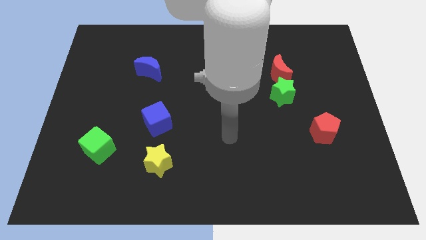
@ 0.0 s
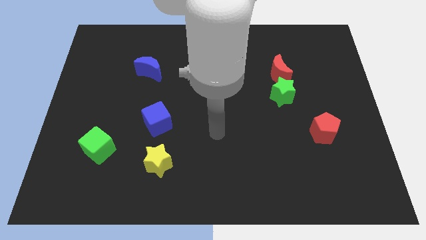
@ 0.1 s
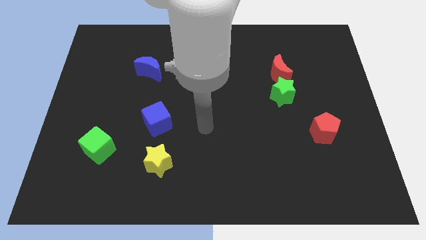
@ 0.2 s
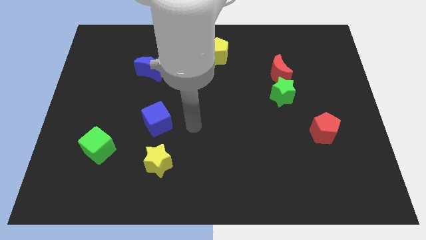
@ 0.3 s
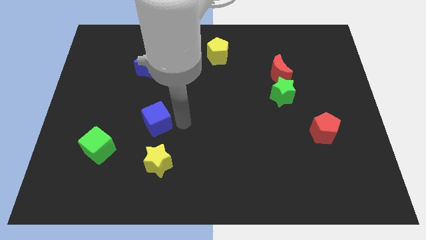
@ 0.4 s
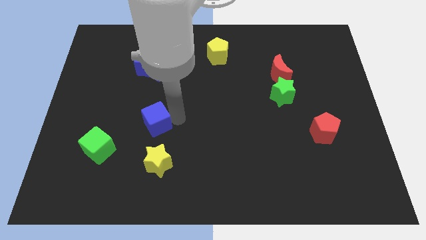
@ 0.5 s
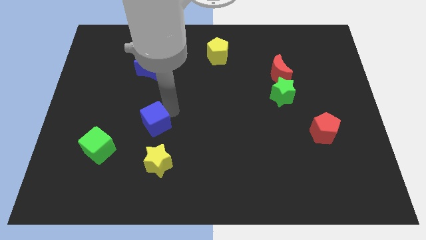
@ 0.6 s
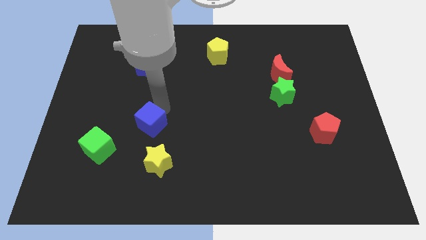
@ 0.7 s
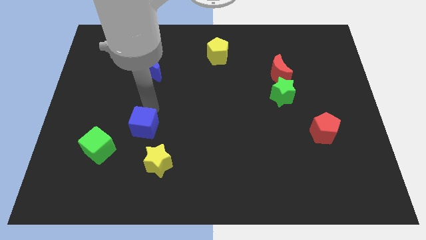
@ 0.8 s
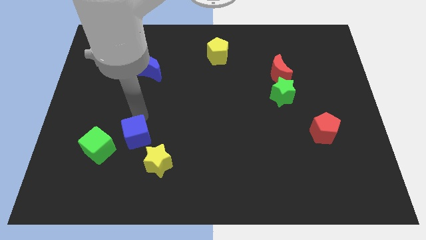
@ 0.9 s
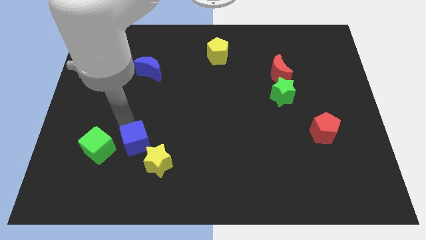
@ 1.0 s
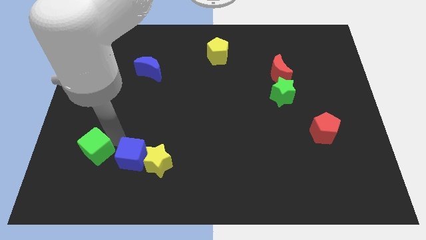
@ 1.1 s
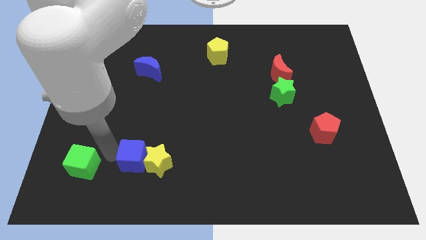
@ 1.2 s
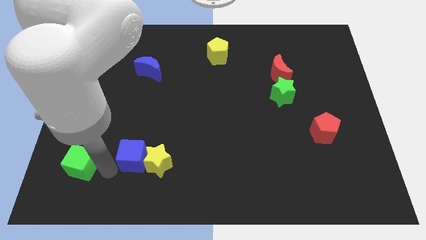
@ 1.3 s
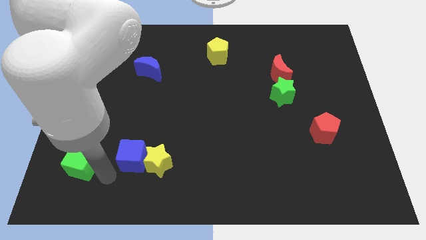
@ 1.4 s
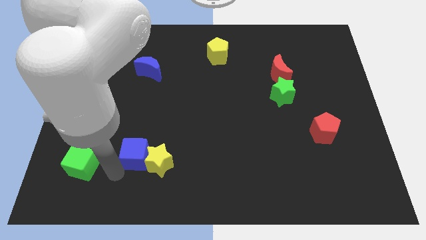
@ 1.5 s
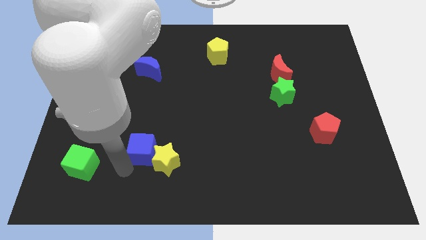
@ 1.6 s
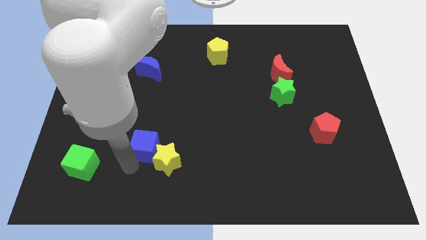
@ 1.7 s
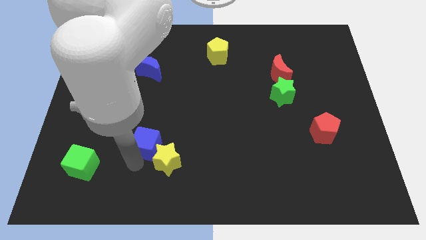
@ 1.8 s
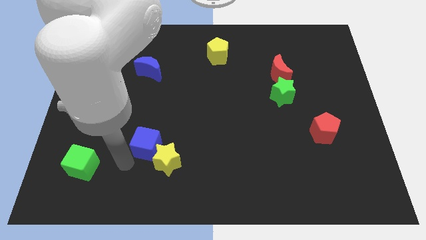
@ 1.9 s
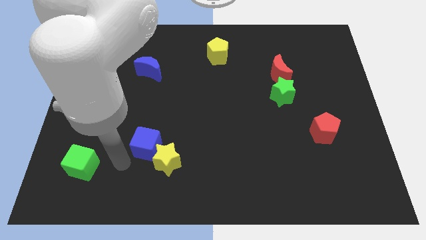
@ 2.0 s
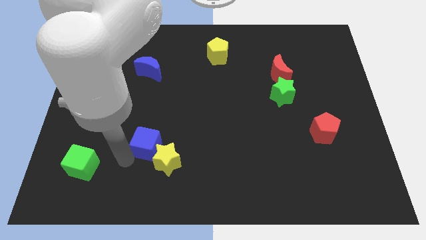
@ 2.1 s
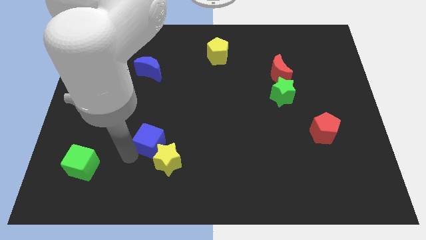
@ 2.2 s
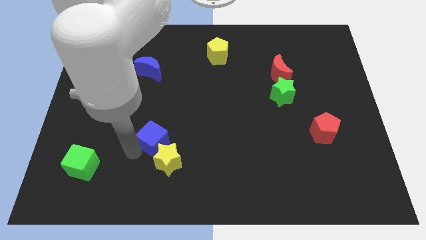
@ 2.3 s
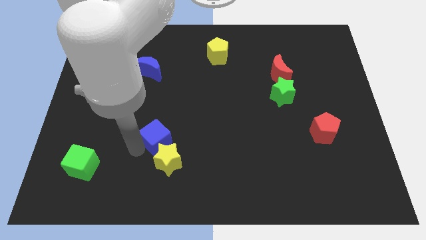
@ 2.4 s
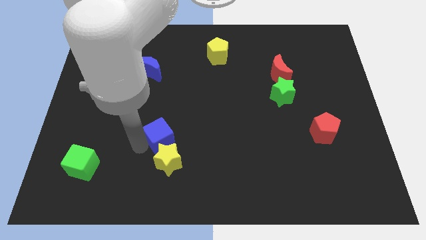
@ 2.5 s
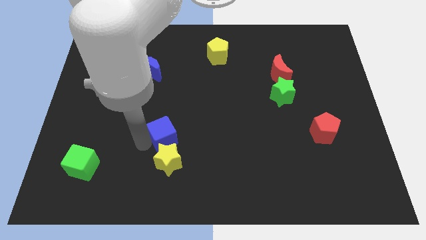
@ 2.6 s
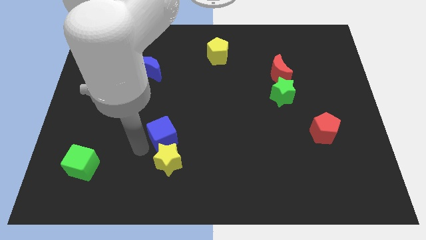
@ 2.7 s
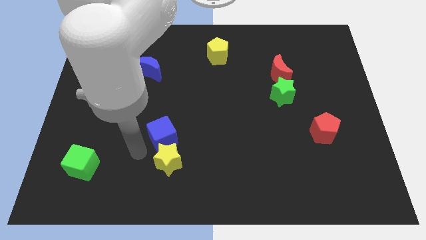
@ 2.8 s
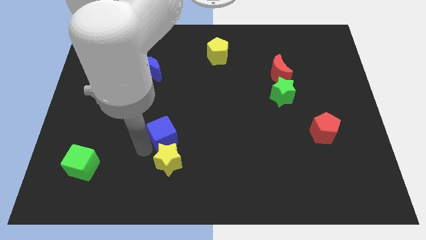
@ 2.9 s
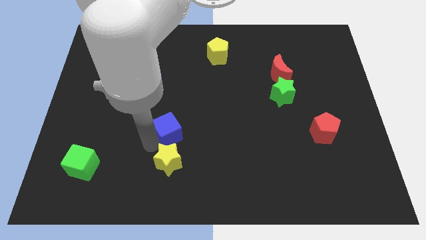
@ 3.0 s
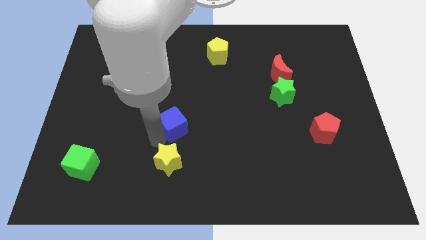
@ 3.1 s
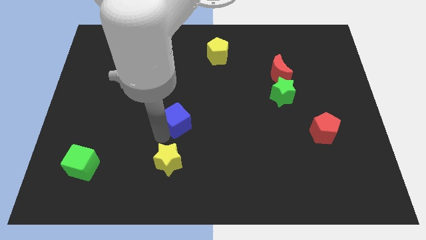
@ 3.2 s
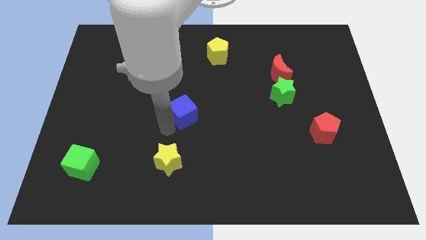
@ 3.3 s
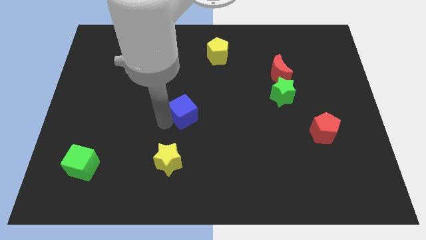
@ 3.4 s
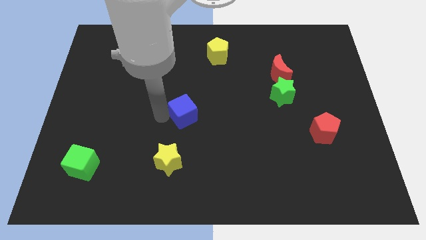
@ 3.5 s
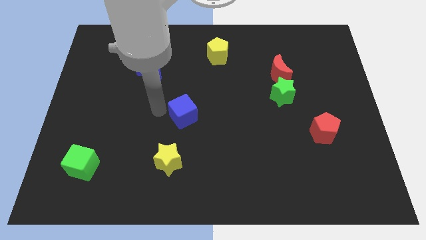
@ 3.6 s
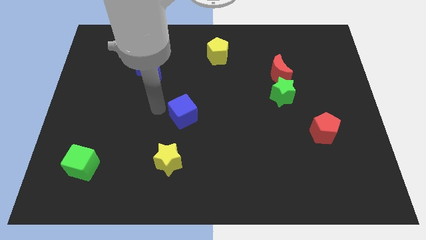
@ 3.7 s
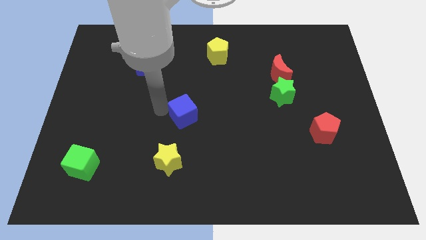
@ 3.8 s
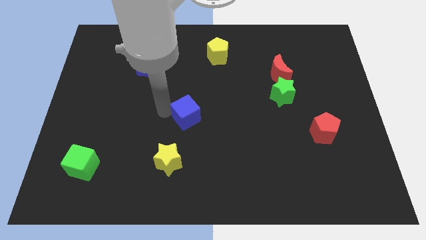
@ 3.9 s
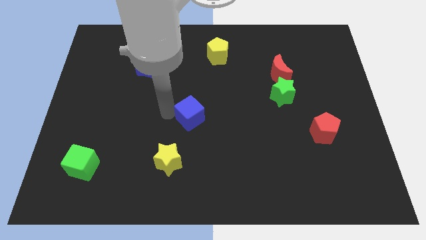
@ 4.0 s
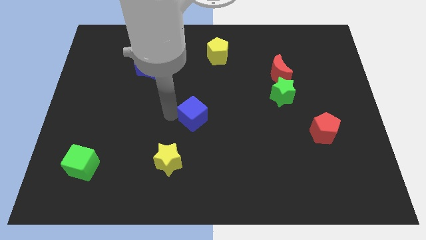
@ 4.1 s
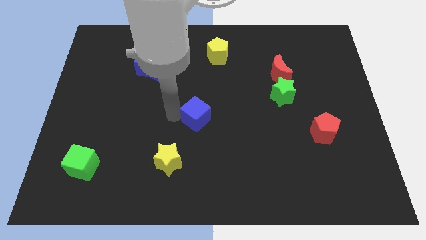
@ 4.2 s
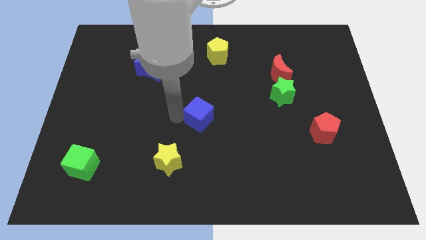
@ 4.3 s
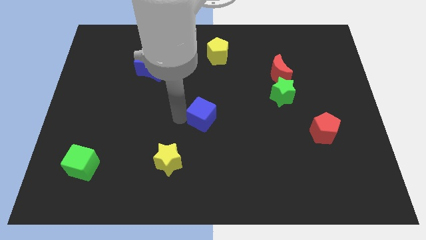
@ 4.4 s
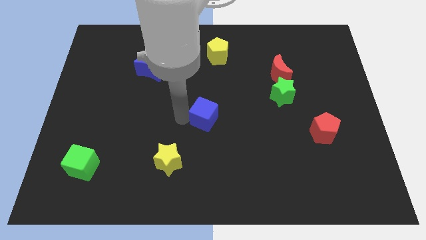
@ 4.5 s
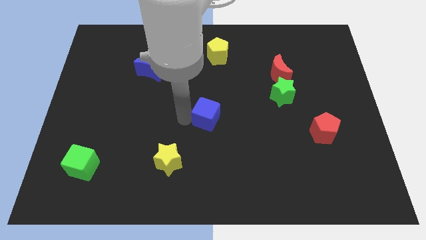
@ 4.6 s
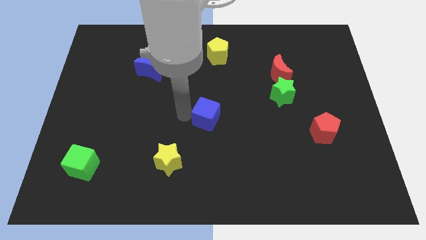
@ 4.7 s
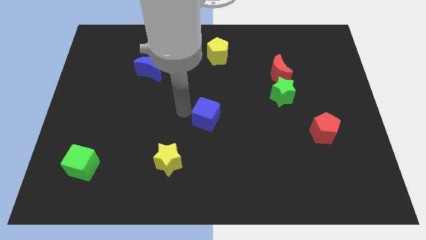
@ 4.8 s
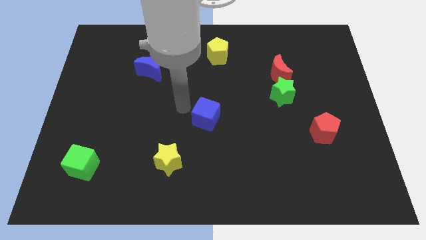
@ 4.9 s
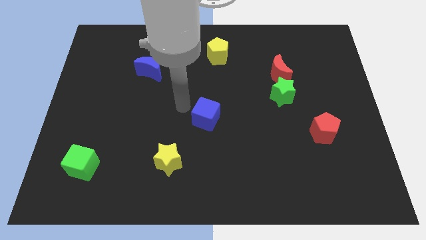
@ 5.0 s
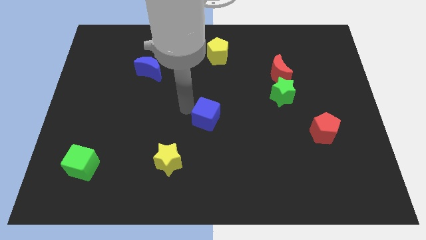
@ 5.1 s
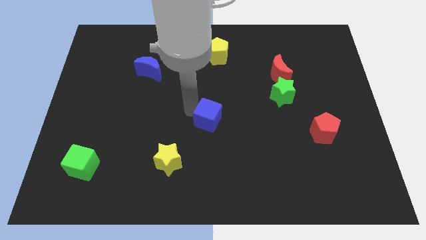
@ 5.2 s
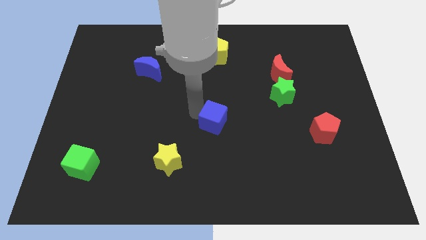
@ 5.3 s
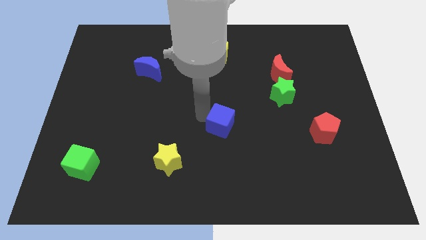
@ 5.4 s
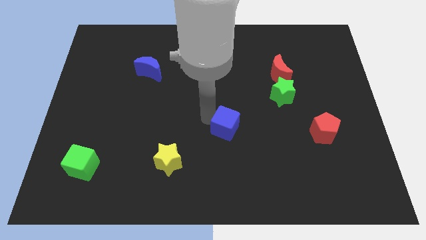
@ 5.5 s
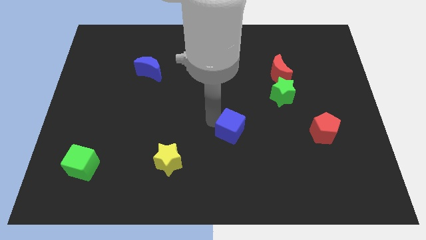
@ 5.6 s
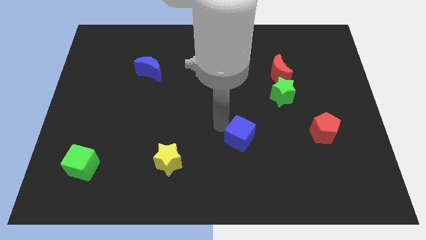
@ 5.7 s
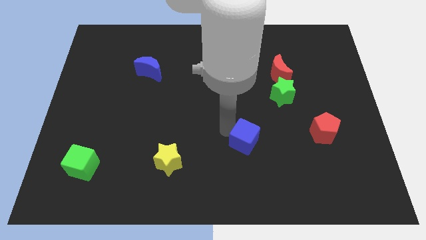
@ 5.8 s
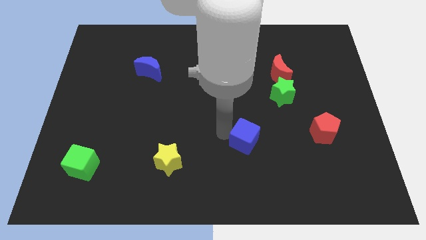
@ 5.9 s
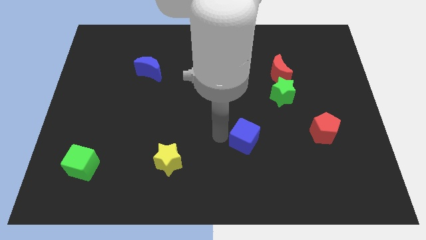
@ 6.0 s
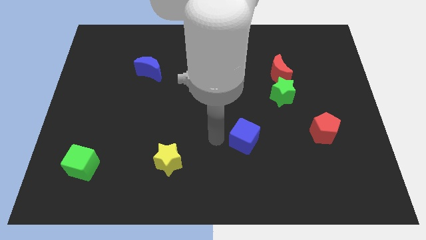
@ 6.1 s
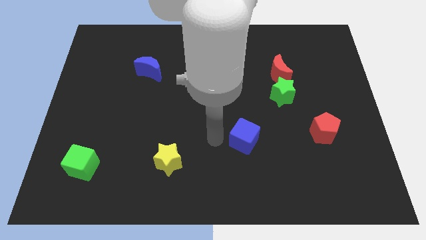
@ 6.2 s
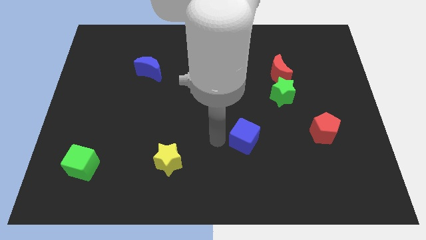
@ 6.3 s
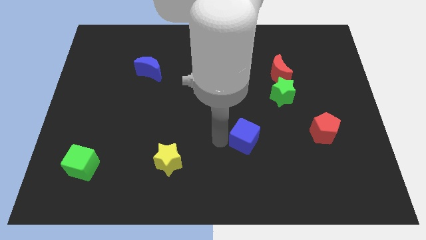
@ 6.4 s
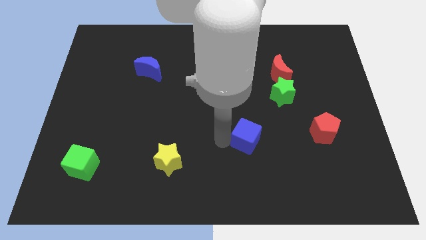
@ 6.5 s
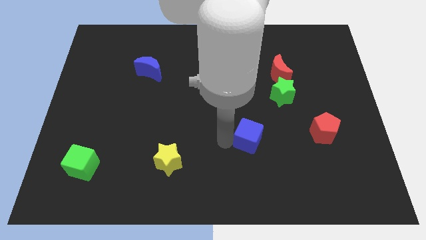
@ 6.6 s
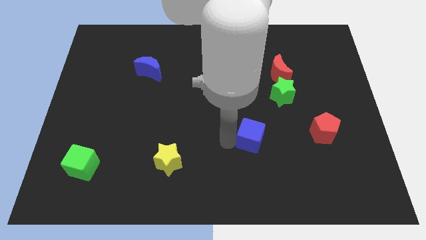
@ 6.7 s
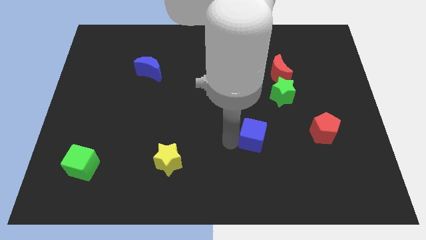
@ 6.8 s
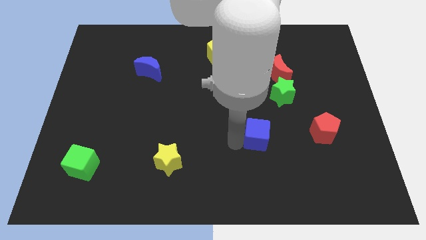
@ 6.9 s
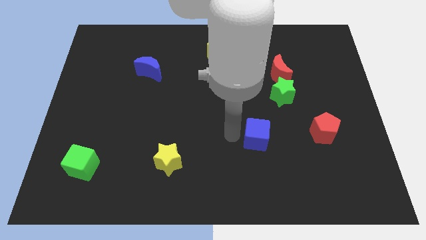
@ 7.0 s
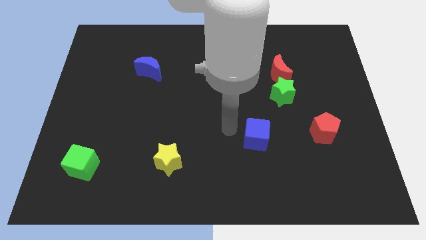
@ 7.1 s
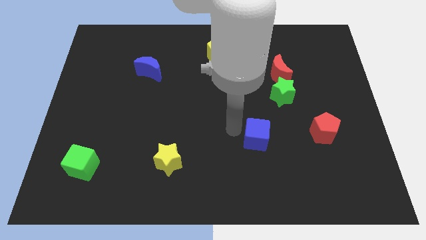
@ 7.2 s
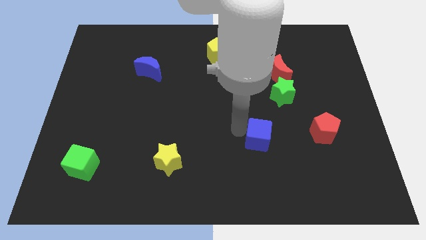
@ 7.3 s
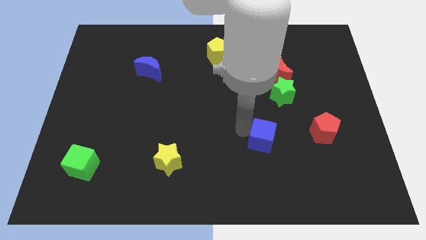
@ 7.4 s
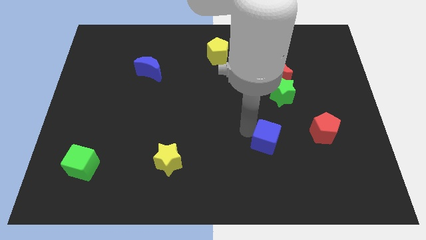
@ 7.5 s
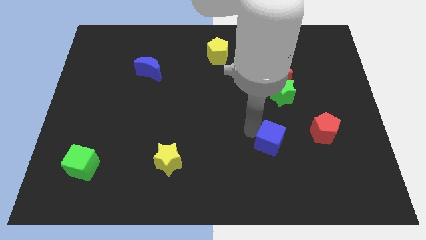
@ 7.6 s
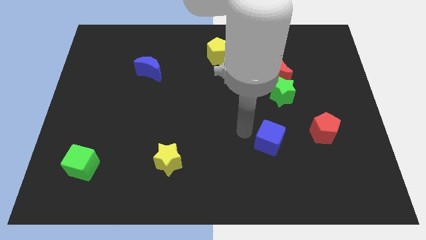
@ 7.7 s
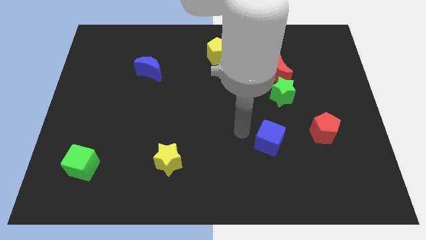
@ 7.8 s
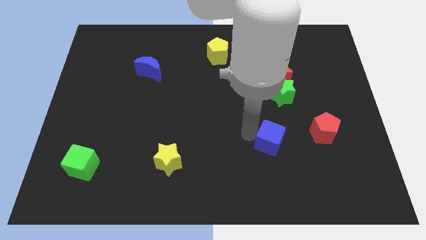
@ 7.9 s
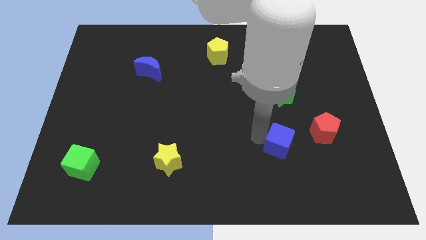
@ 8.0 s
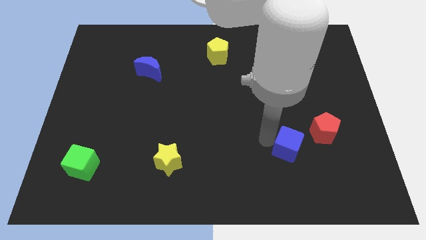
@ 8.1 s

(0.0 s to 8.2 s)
put the blue cube to the bottom left of the red pentagon
